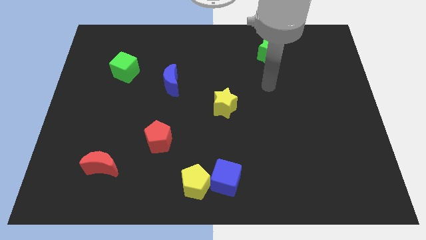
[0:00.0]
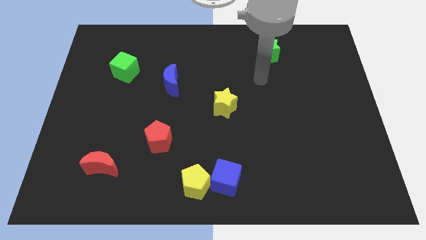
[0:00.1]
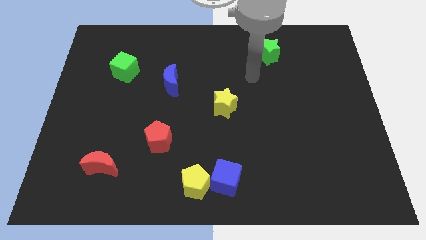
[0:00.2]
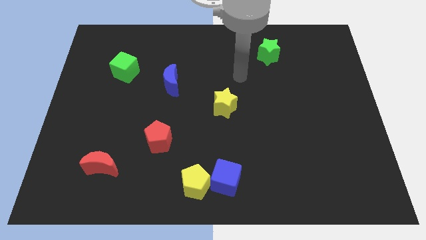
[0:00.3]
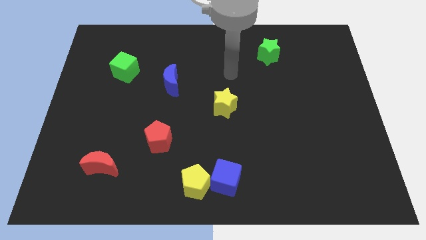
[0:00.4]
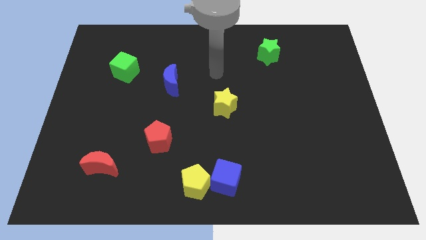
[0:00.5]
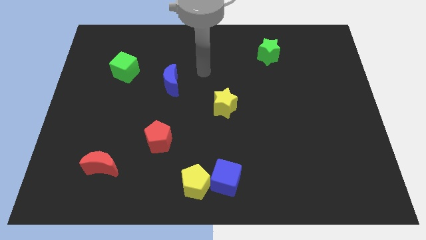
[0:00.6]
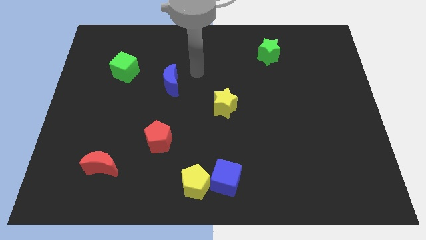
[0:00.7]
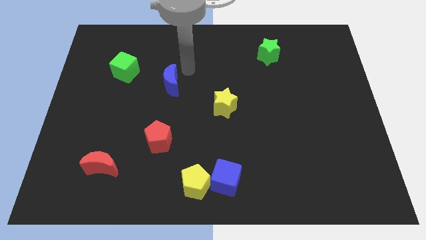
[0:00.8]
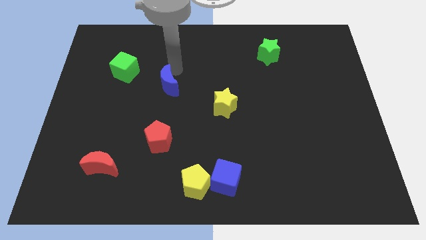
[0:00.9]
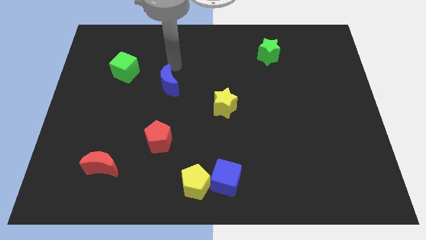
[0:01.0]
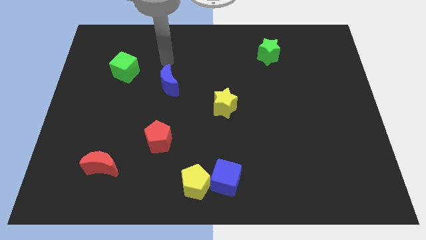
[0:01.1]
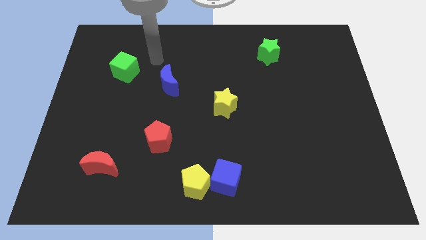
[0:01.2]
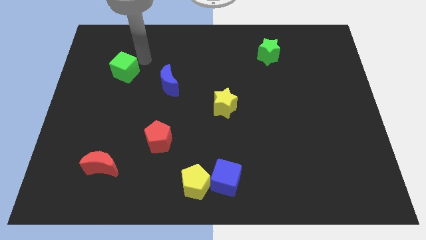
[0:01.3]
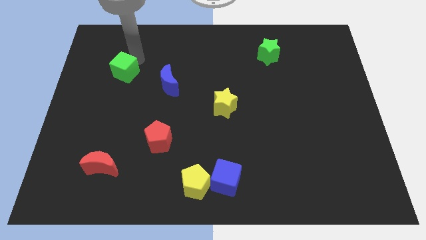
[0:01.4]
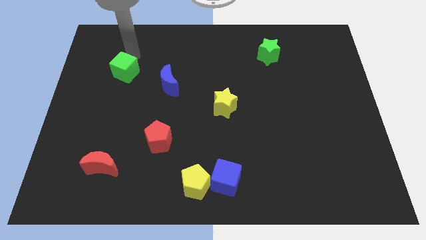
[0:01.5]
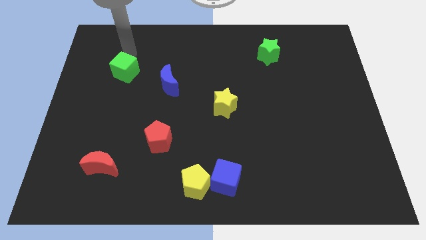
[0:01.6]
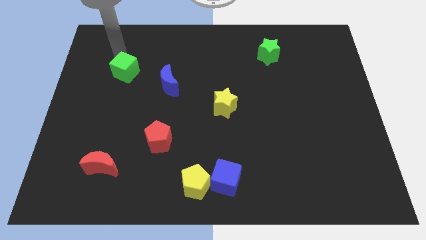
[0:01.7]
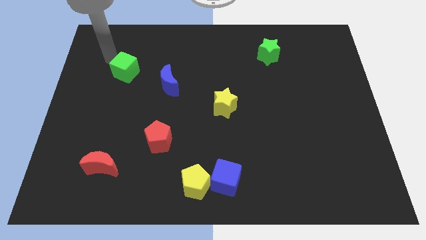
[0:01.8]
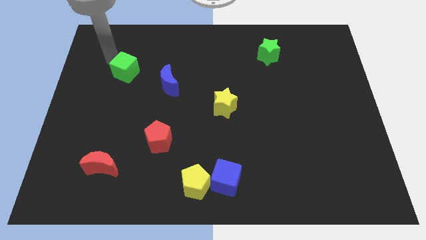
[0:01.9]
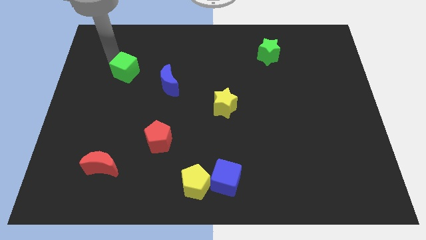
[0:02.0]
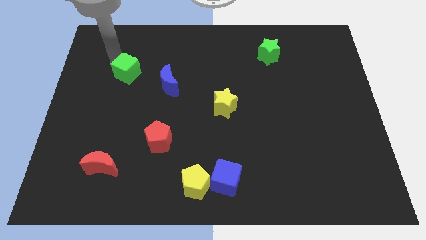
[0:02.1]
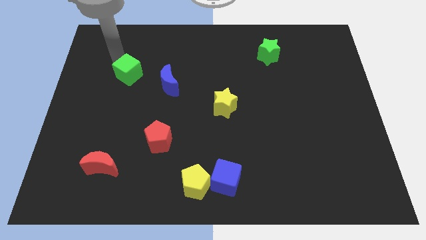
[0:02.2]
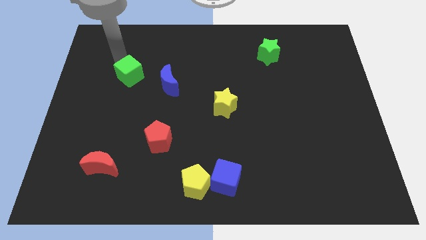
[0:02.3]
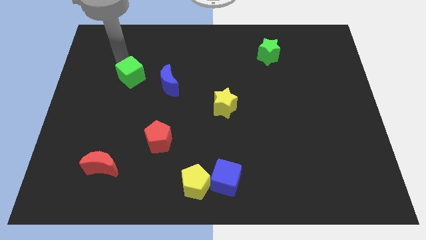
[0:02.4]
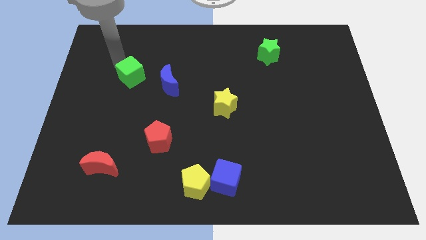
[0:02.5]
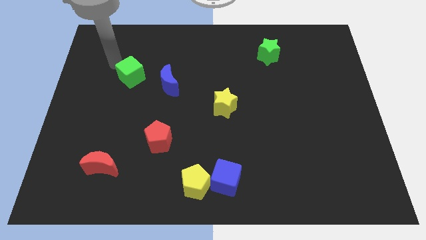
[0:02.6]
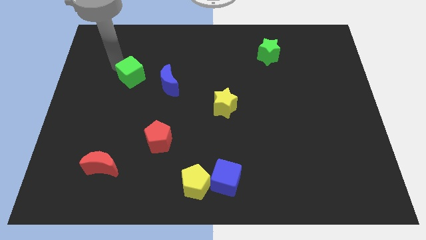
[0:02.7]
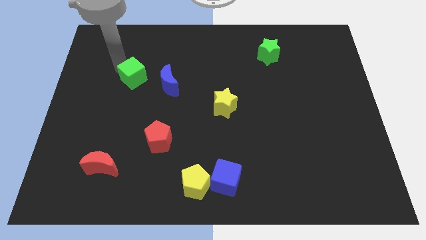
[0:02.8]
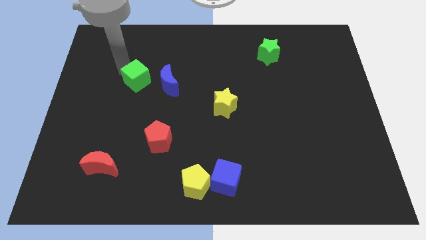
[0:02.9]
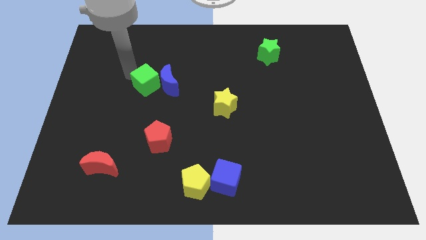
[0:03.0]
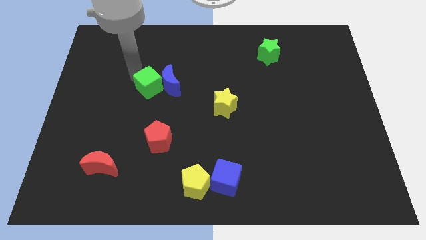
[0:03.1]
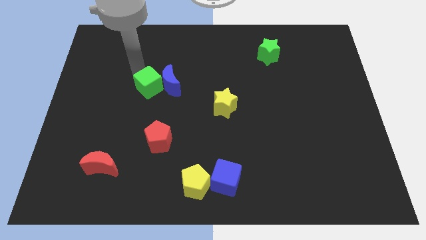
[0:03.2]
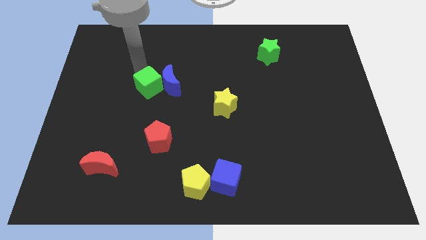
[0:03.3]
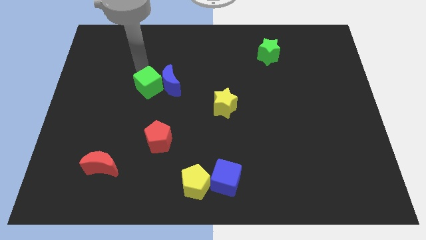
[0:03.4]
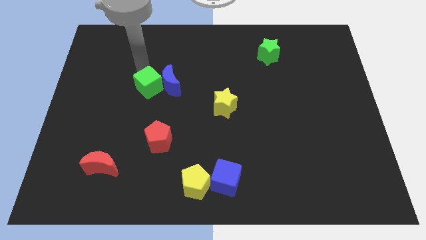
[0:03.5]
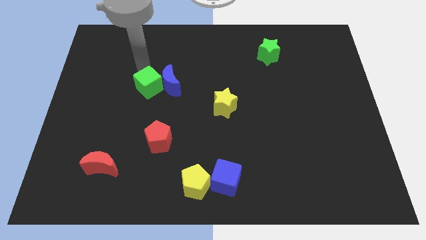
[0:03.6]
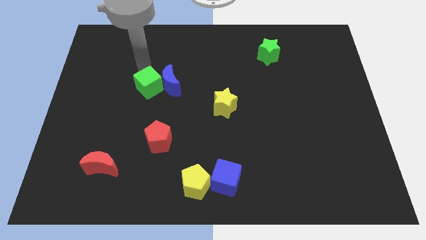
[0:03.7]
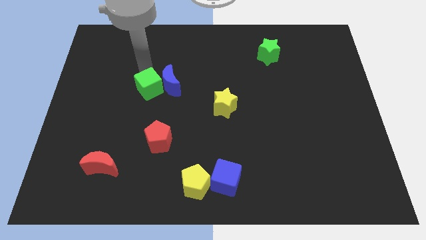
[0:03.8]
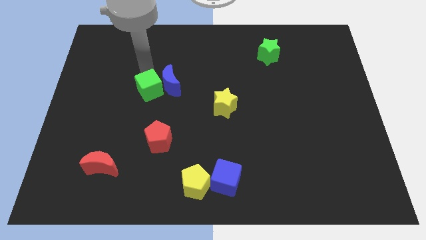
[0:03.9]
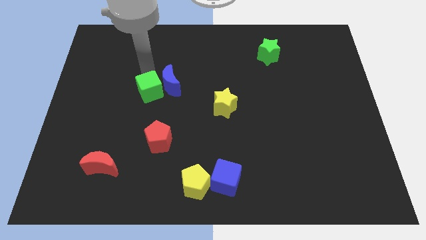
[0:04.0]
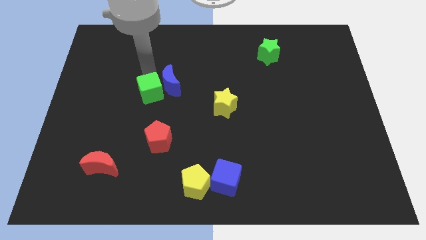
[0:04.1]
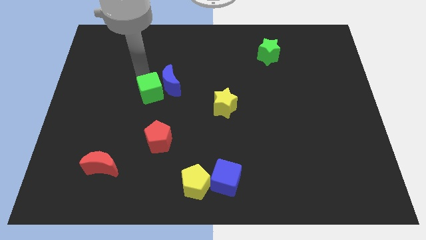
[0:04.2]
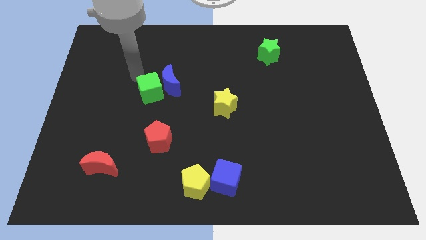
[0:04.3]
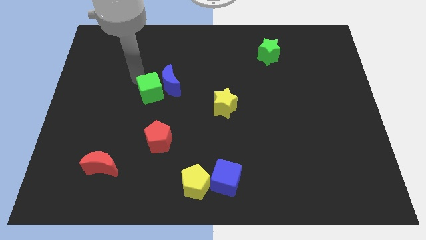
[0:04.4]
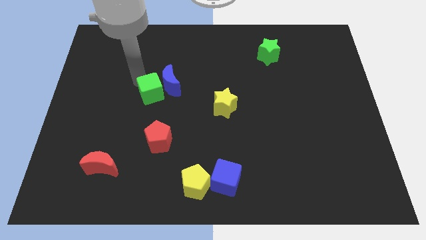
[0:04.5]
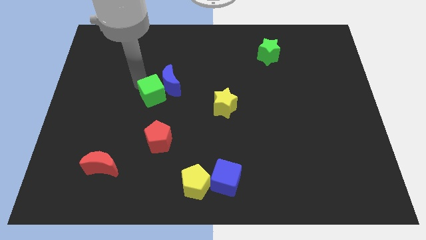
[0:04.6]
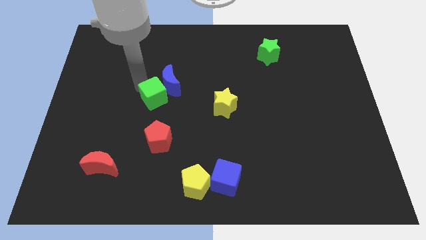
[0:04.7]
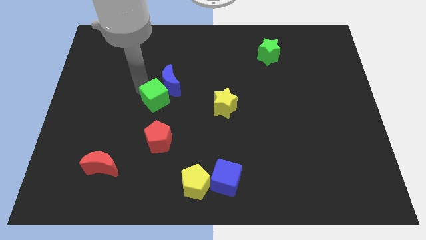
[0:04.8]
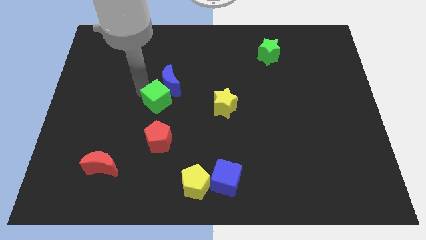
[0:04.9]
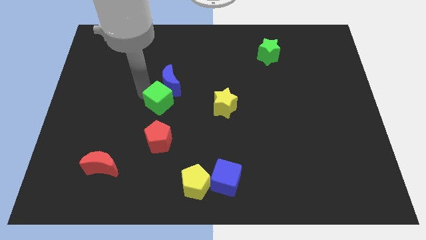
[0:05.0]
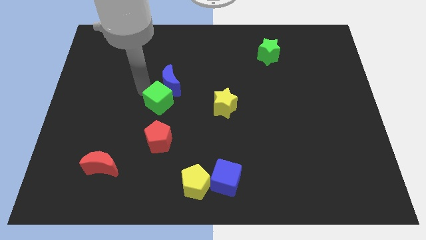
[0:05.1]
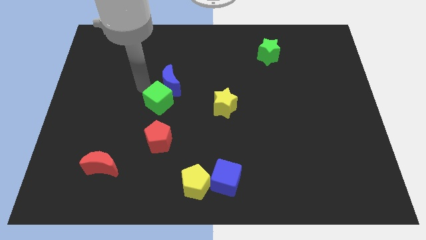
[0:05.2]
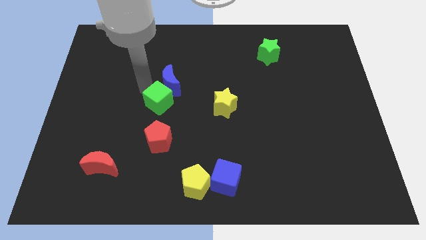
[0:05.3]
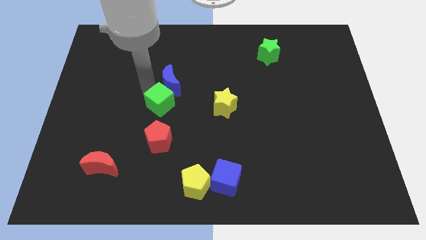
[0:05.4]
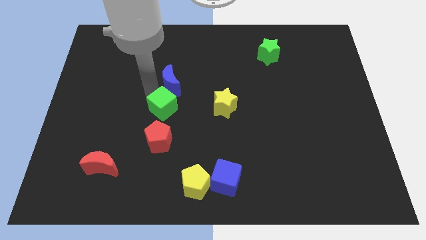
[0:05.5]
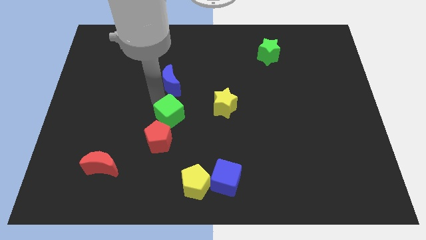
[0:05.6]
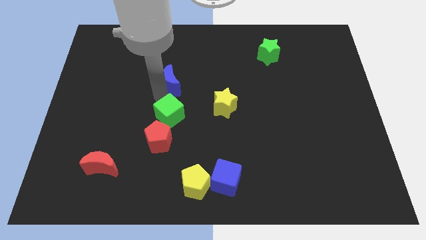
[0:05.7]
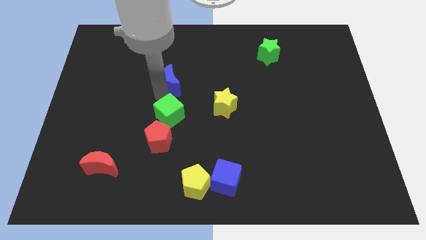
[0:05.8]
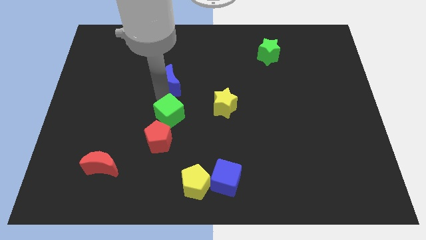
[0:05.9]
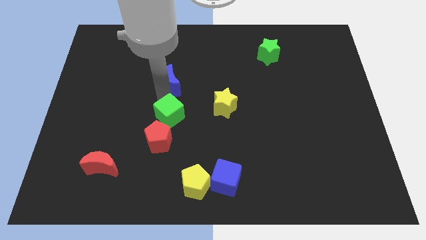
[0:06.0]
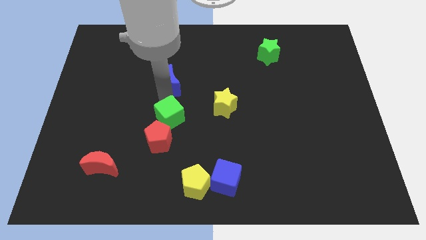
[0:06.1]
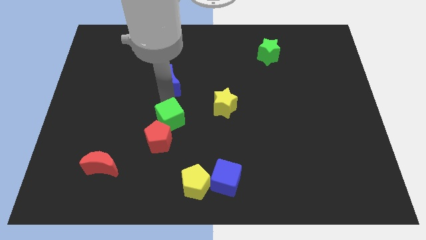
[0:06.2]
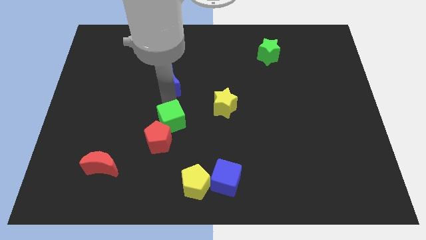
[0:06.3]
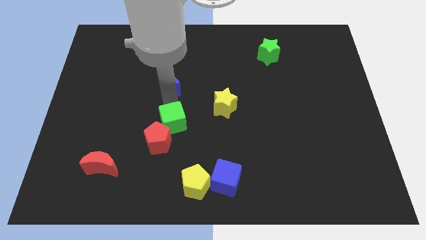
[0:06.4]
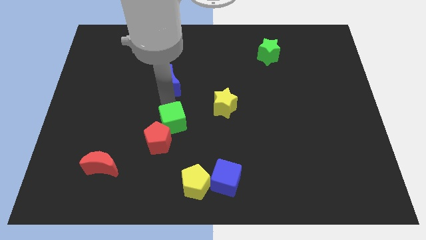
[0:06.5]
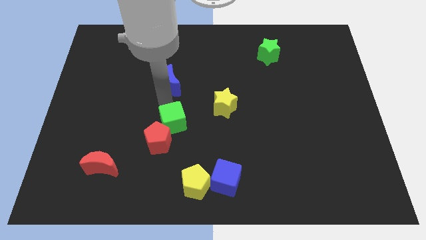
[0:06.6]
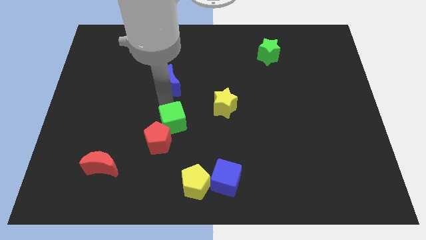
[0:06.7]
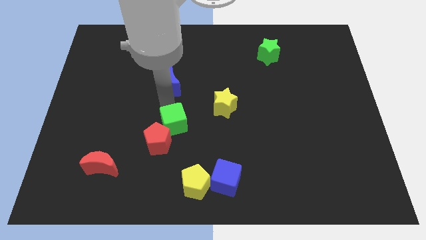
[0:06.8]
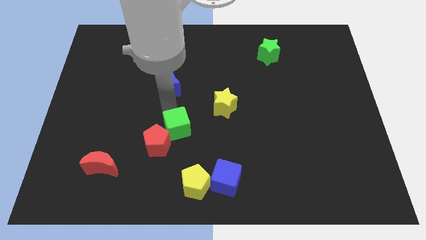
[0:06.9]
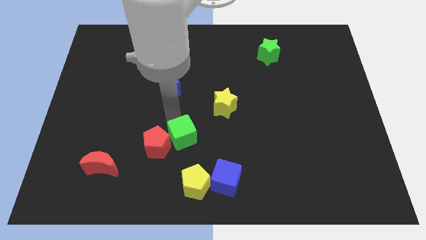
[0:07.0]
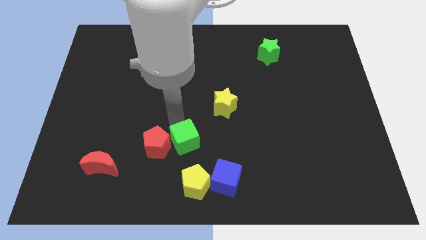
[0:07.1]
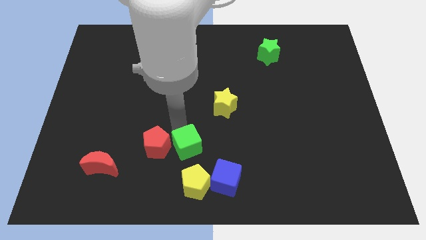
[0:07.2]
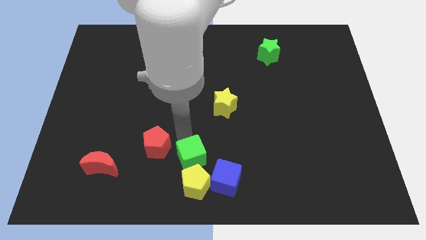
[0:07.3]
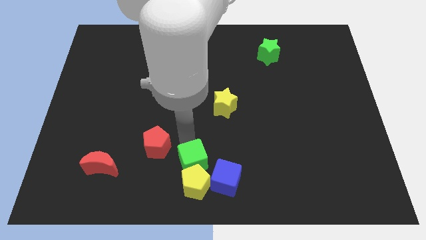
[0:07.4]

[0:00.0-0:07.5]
slide the green cube to the yellow pentagon
